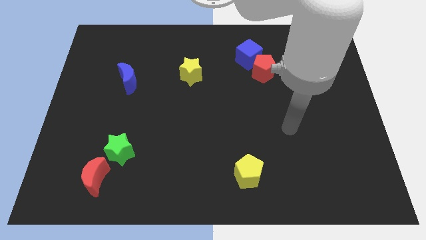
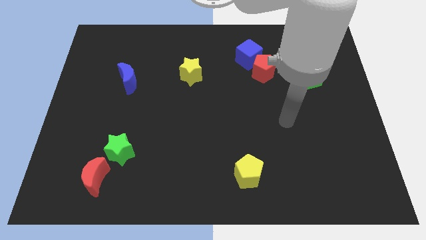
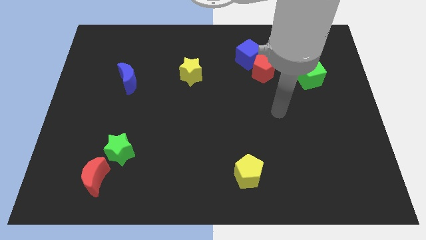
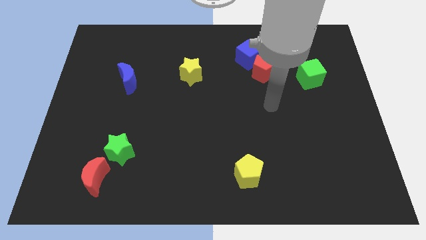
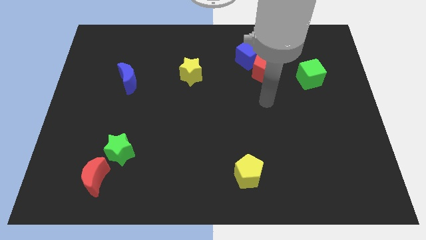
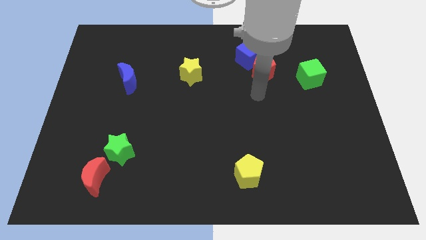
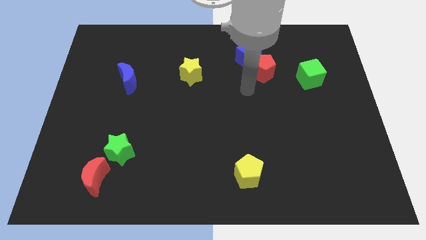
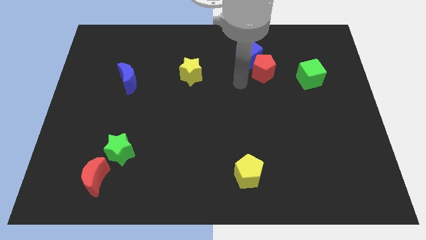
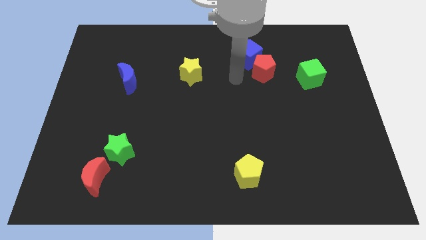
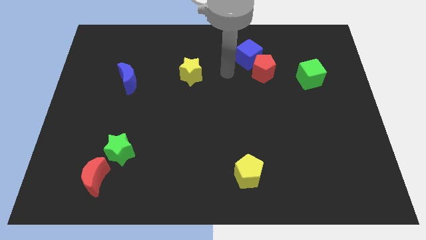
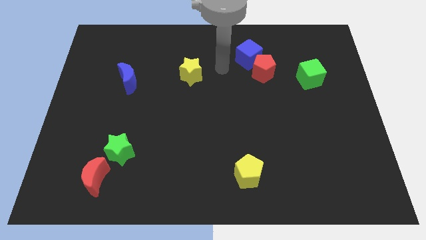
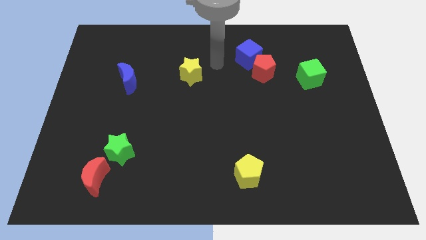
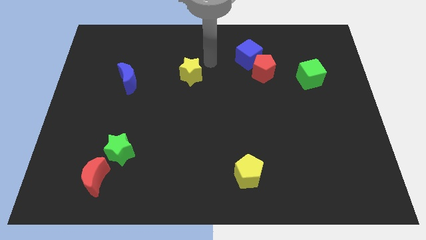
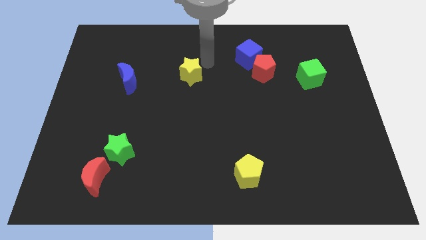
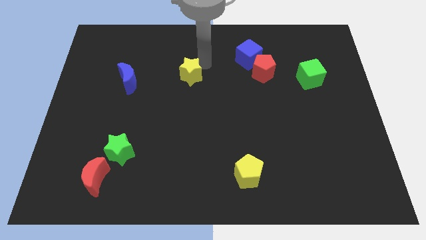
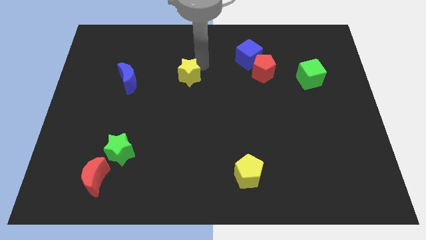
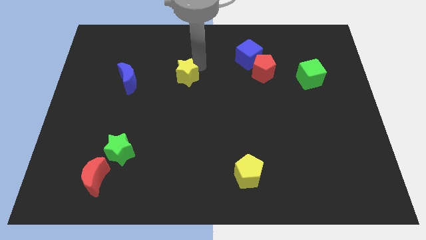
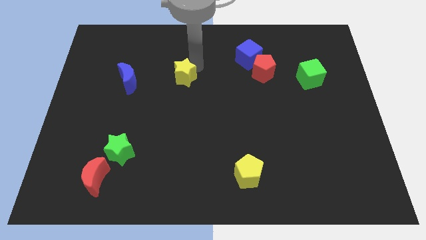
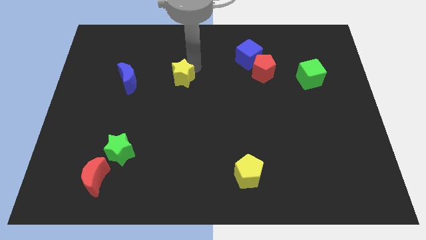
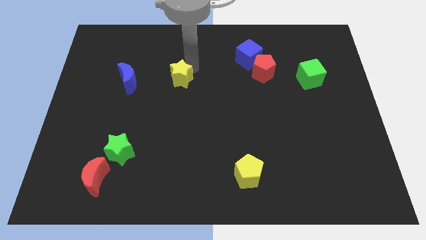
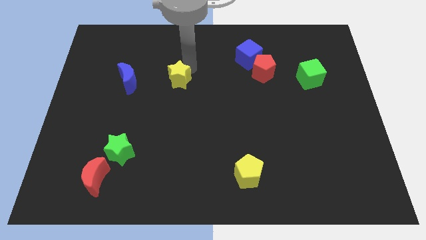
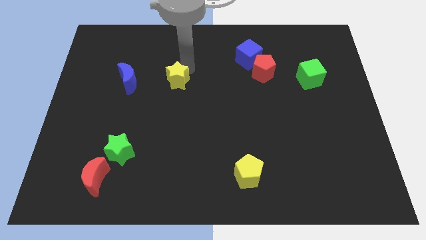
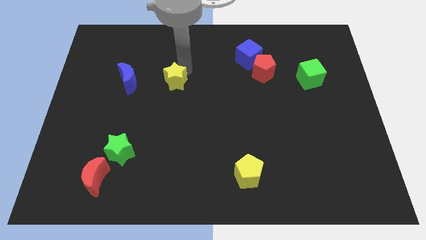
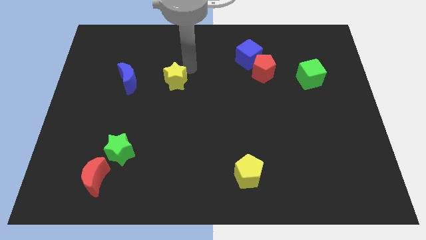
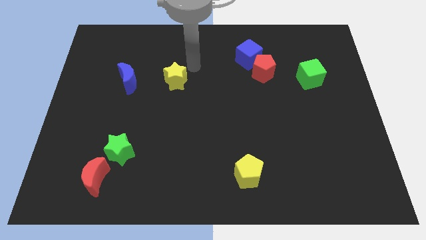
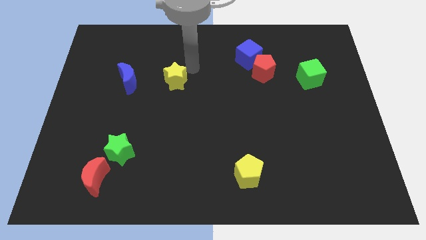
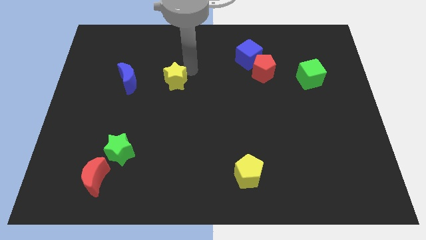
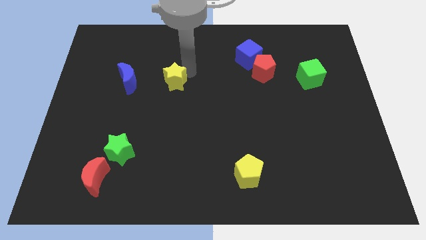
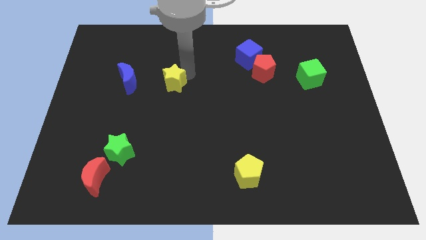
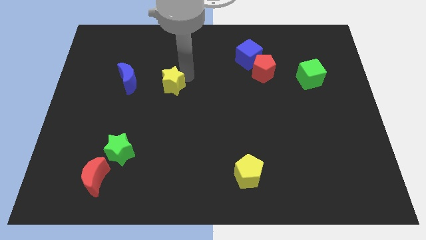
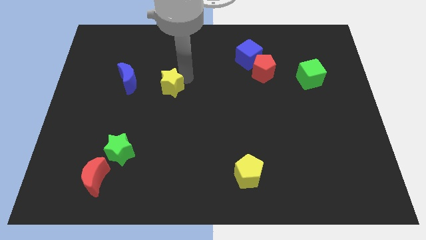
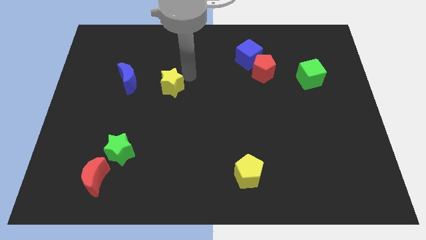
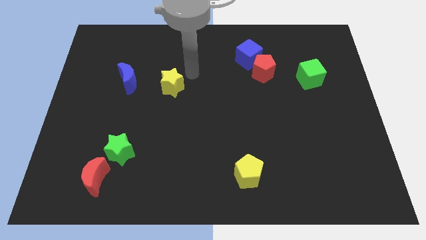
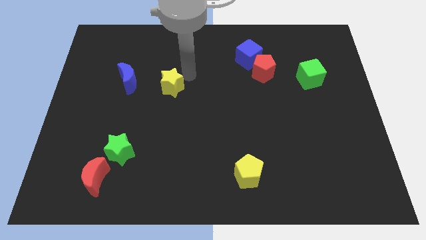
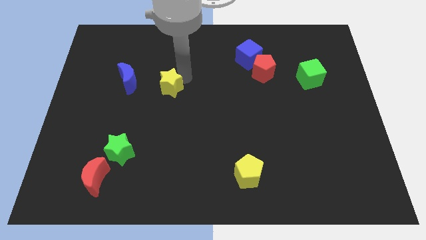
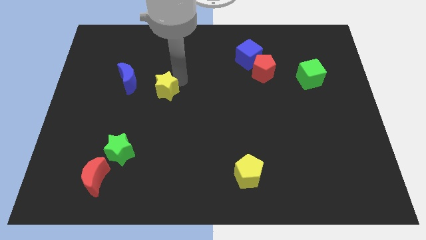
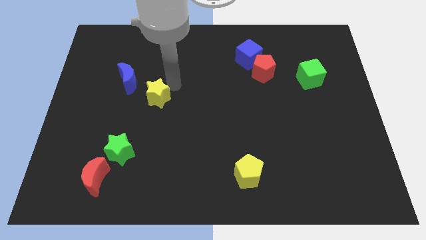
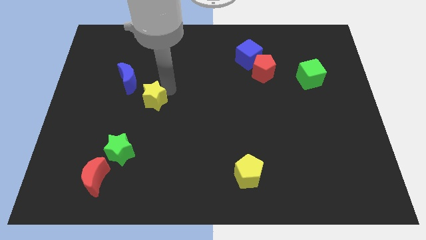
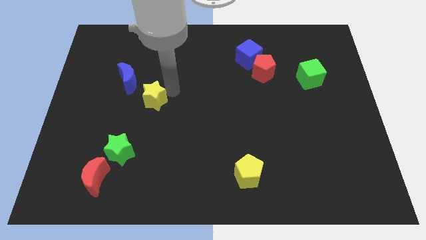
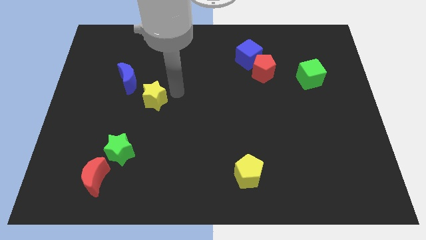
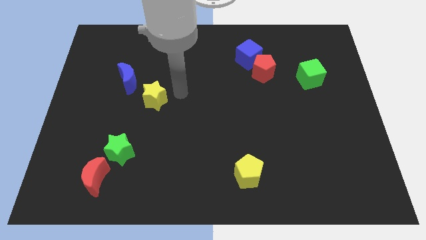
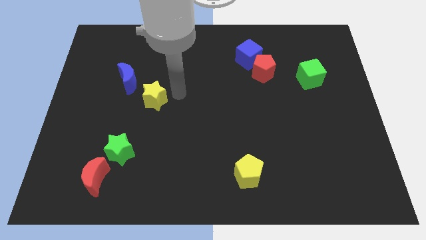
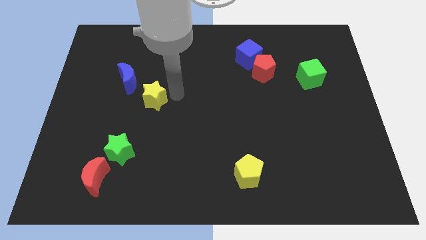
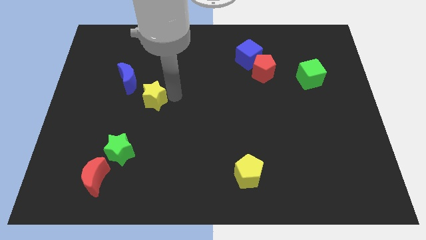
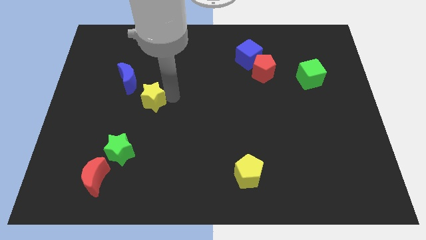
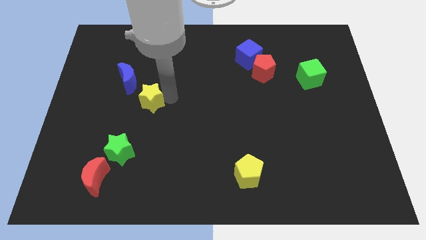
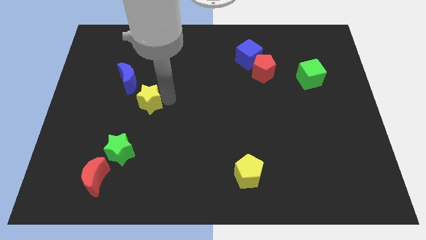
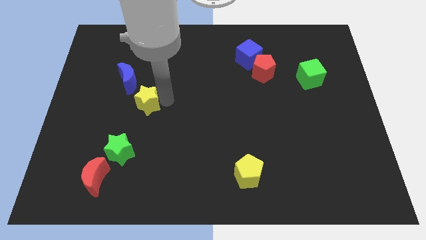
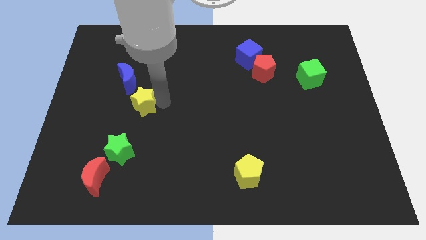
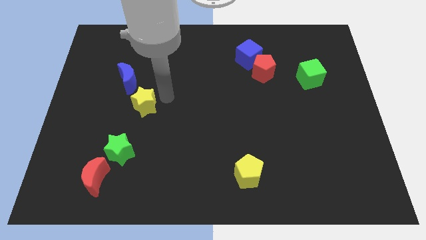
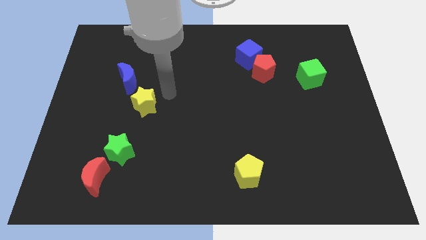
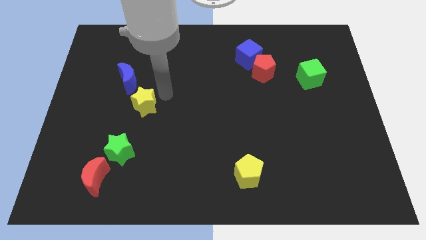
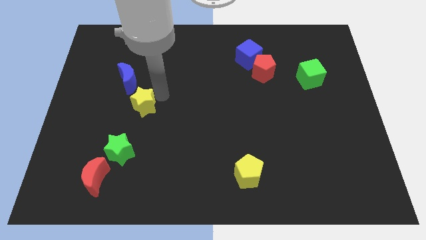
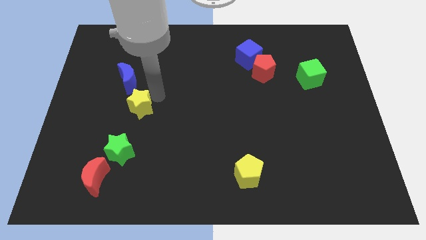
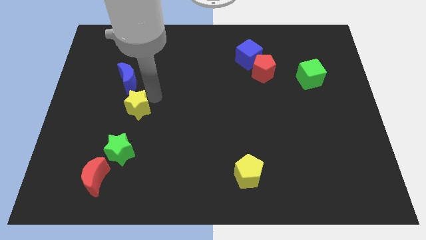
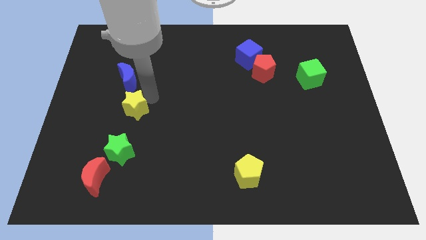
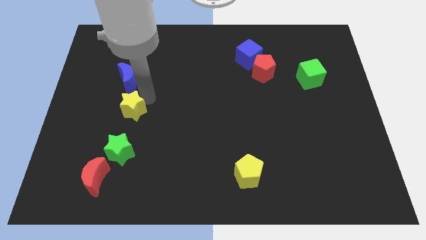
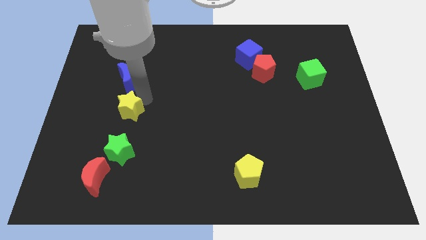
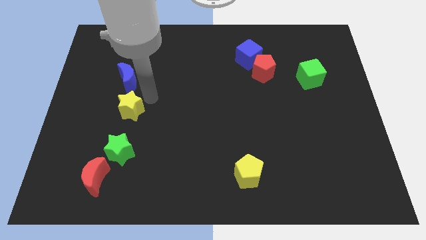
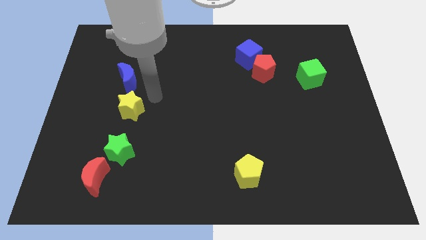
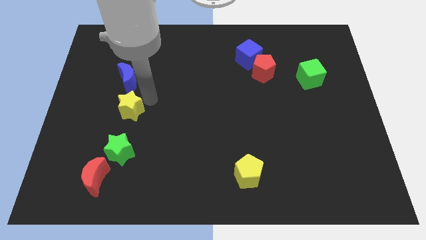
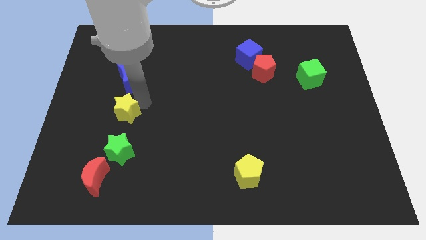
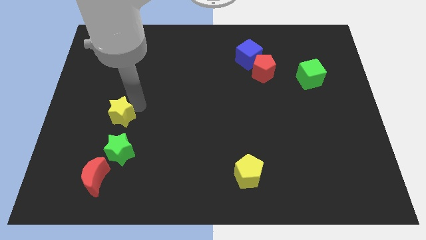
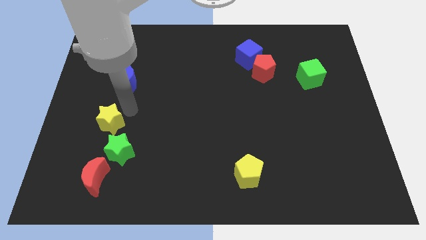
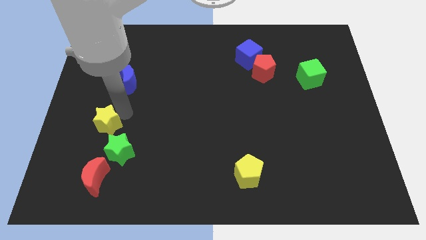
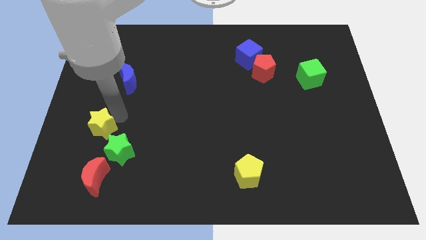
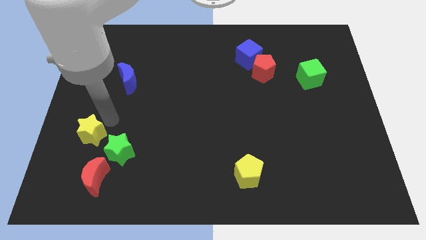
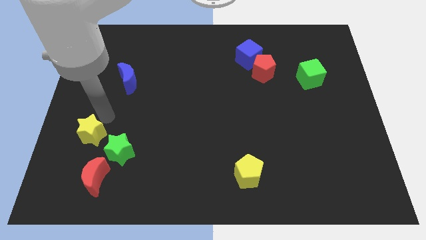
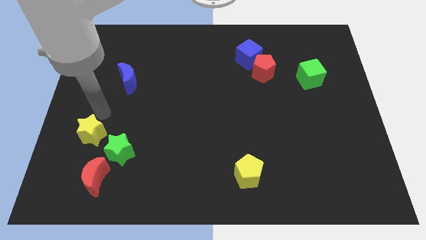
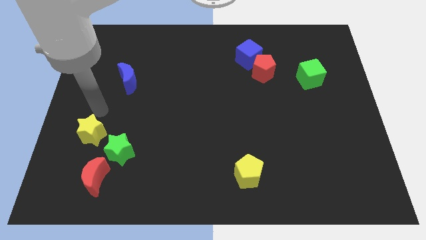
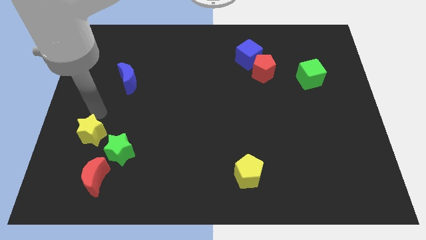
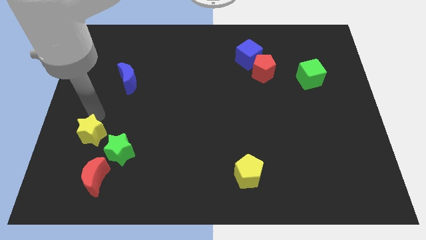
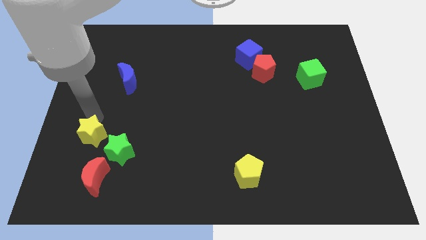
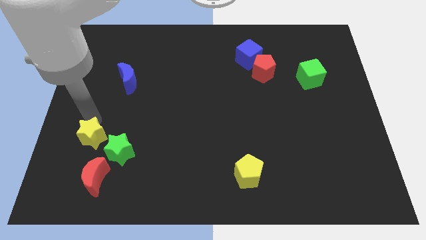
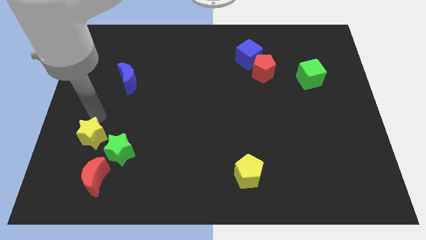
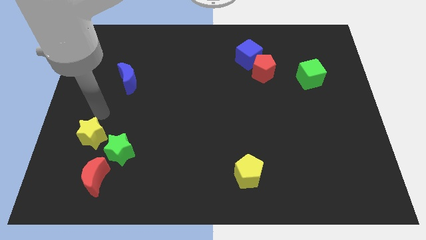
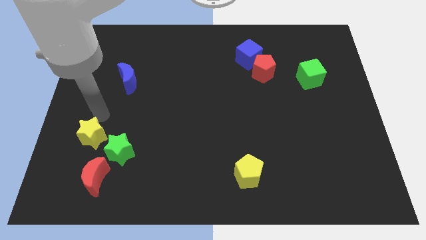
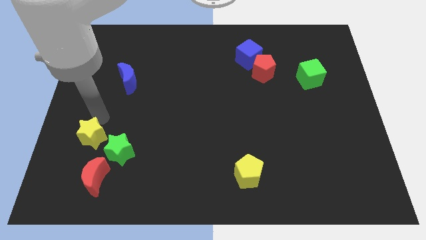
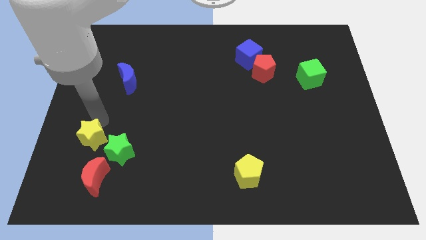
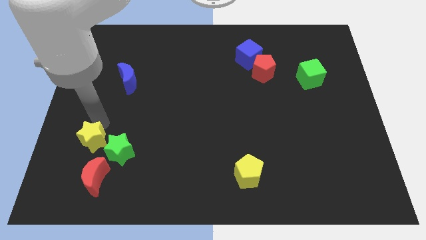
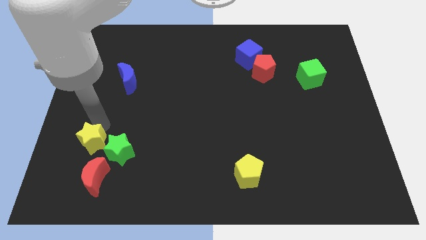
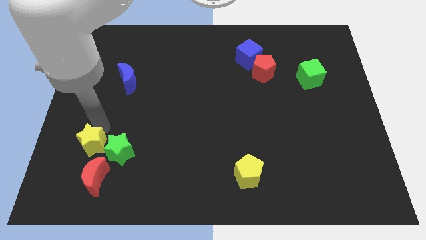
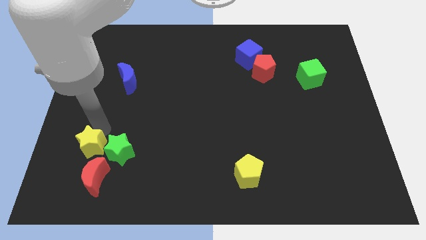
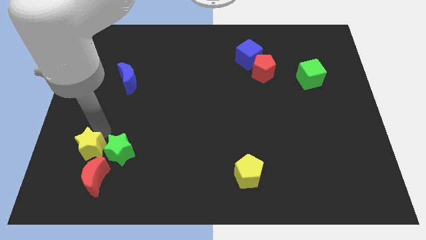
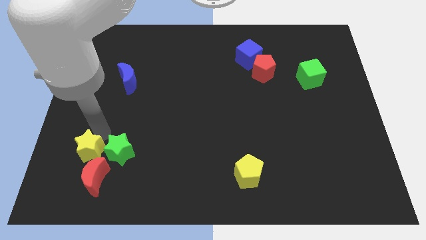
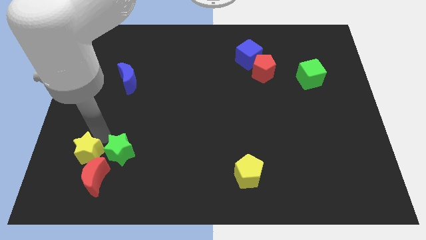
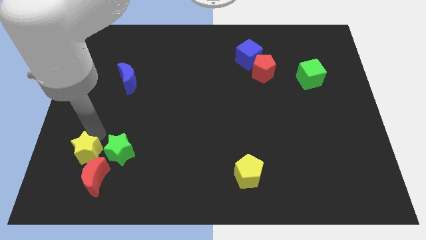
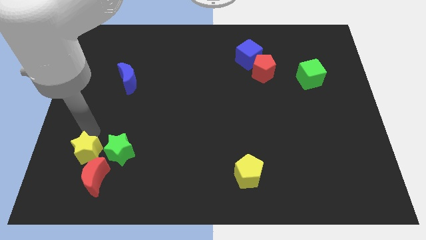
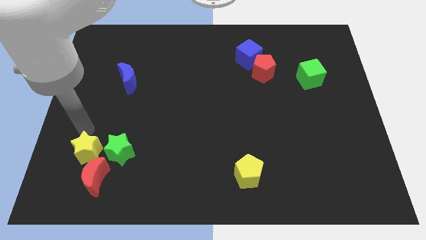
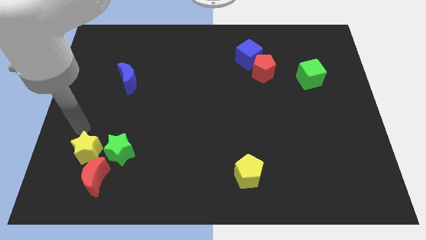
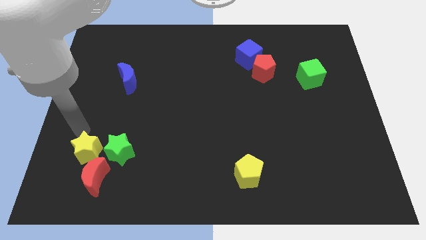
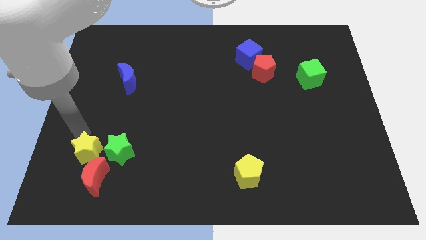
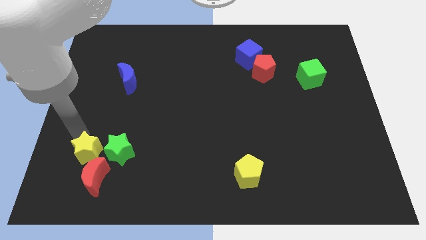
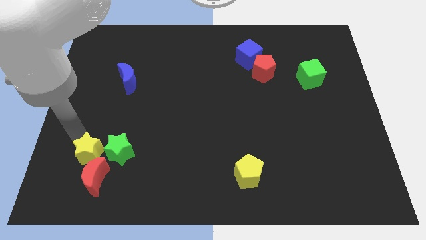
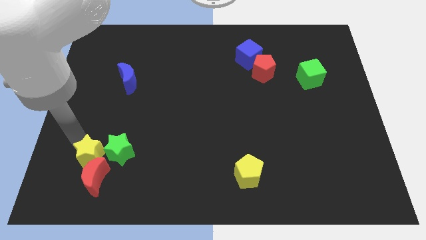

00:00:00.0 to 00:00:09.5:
move the yellow star to the red moon
